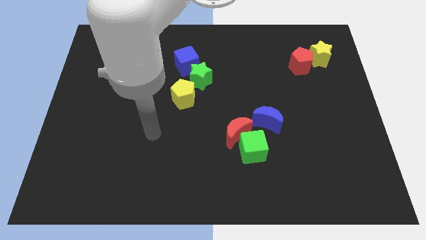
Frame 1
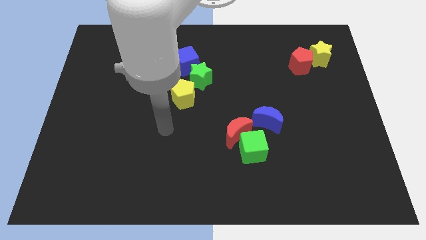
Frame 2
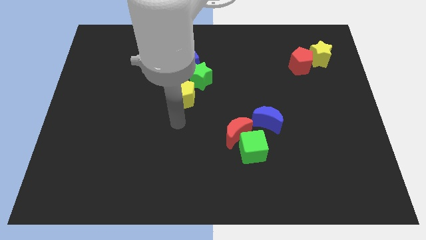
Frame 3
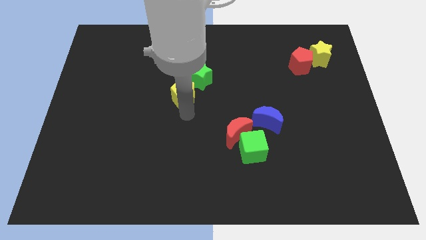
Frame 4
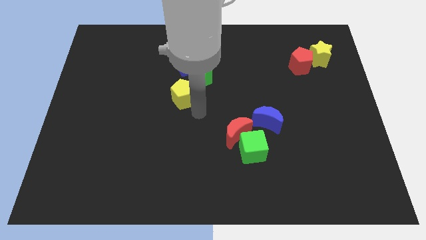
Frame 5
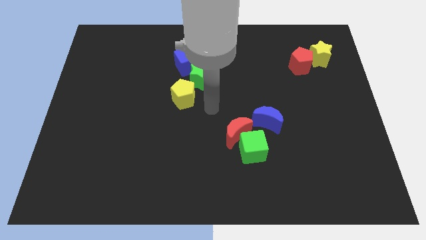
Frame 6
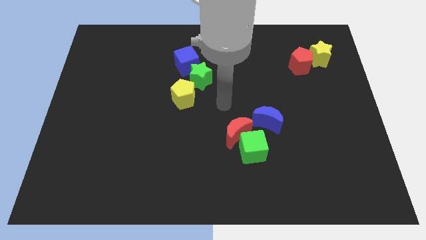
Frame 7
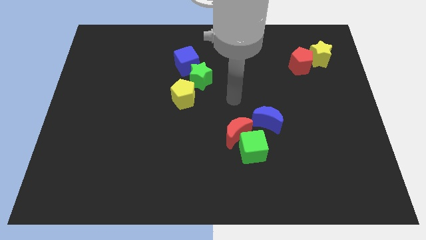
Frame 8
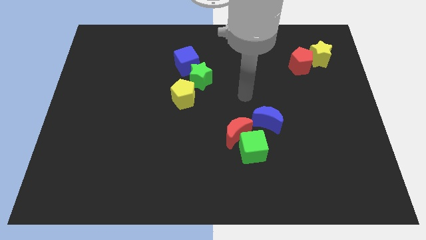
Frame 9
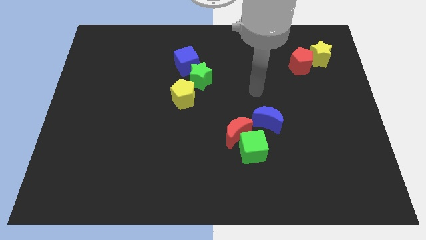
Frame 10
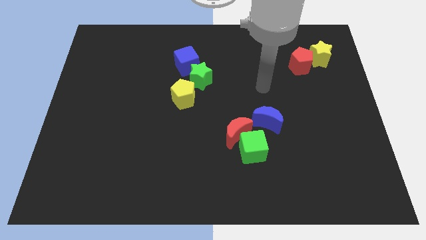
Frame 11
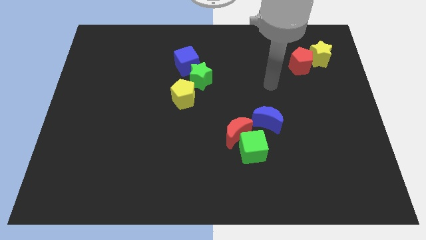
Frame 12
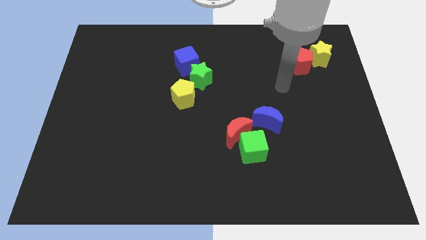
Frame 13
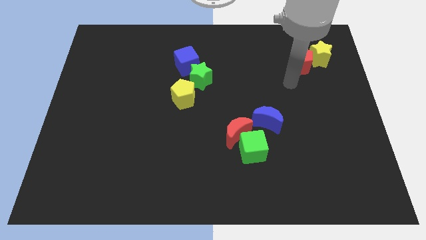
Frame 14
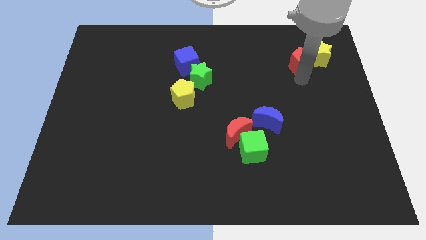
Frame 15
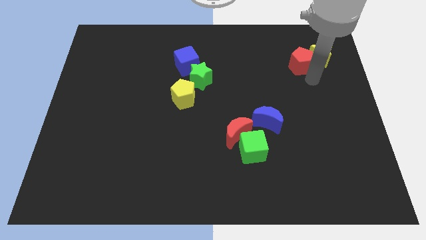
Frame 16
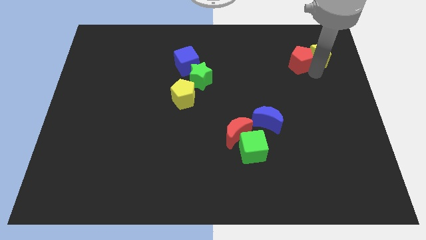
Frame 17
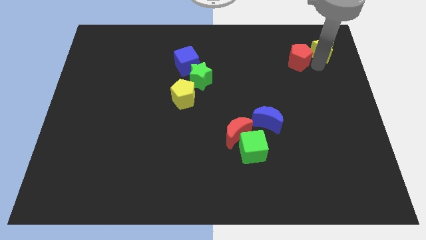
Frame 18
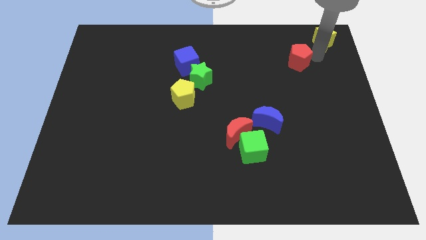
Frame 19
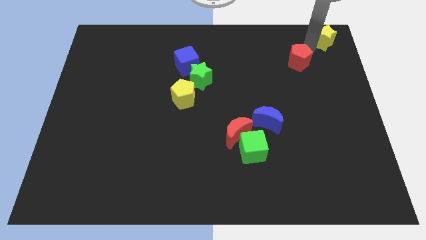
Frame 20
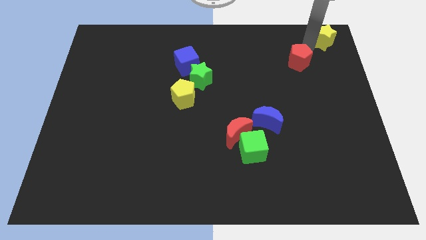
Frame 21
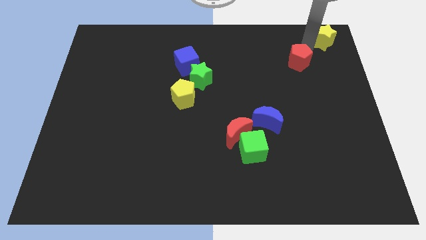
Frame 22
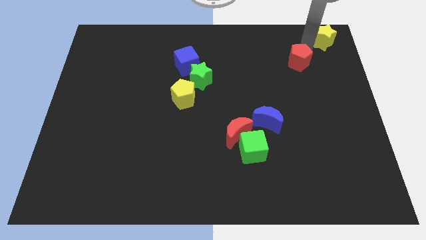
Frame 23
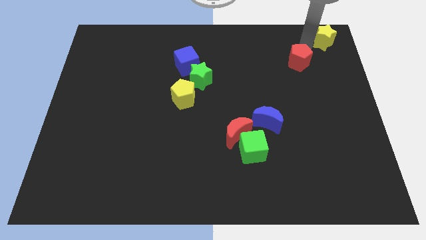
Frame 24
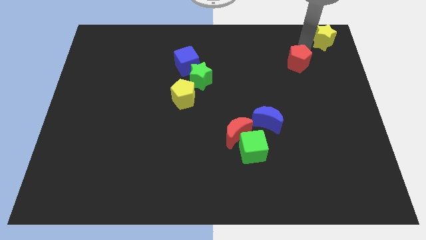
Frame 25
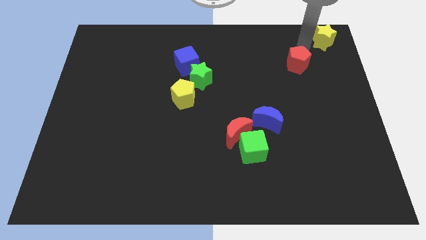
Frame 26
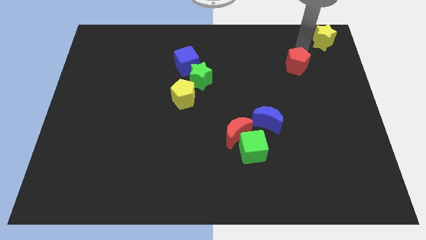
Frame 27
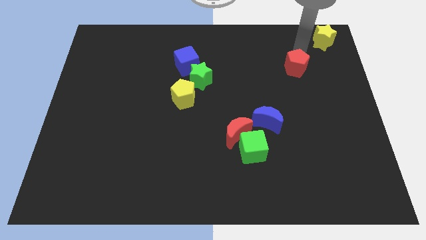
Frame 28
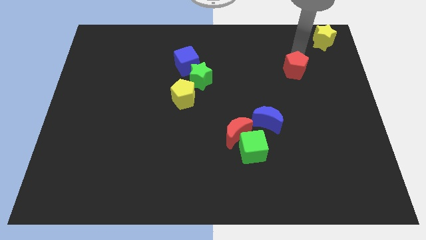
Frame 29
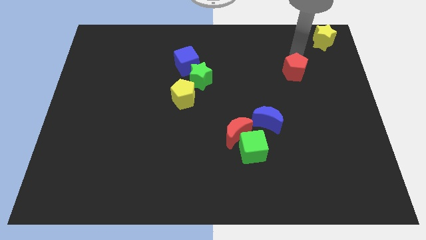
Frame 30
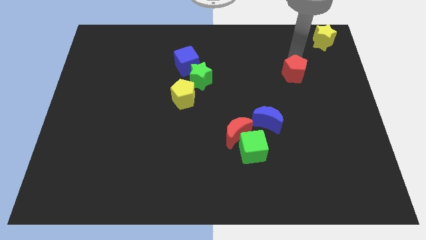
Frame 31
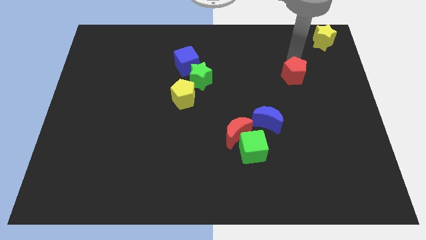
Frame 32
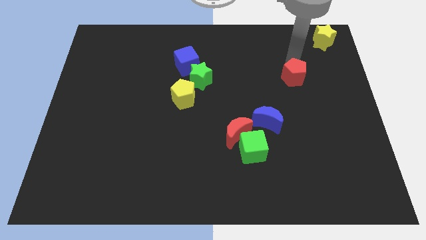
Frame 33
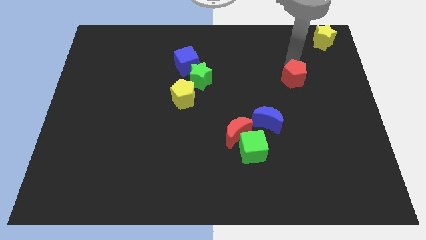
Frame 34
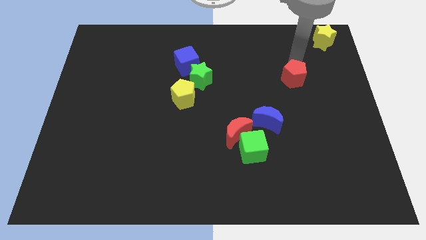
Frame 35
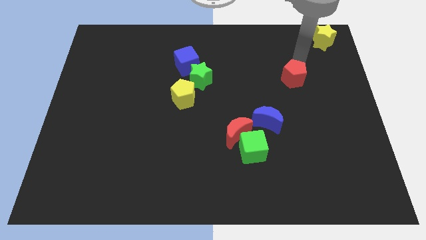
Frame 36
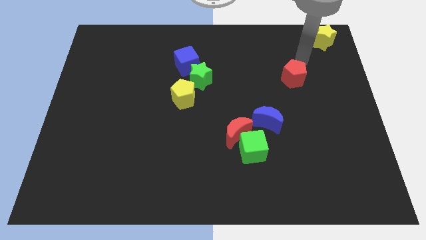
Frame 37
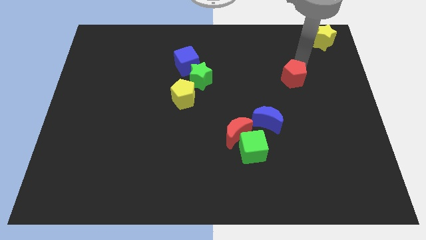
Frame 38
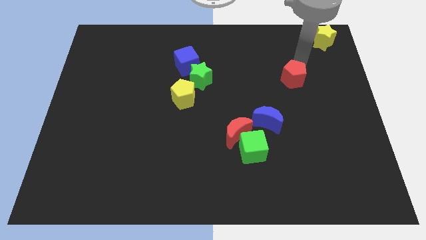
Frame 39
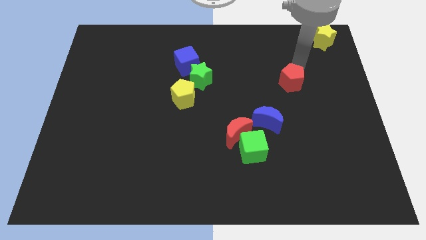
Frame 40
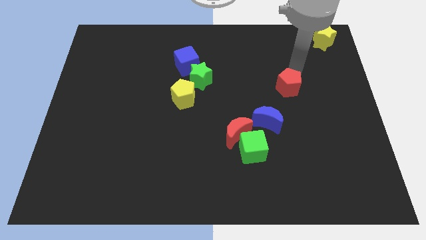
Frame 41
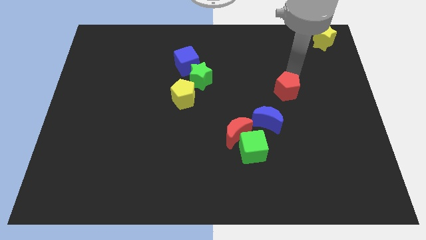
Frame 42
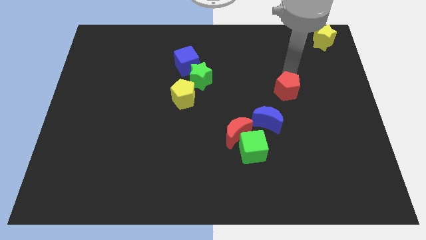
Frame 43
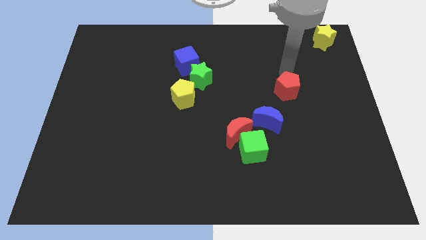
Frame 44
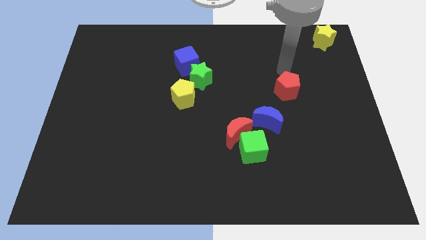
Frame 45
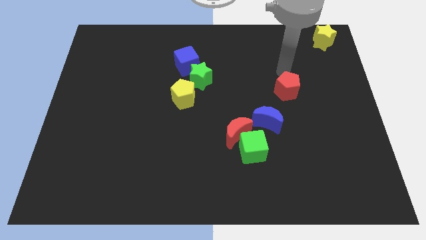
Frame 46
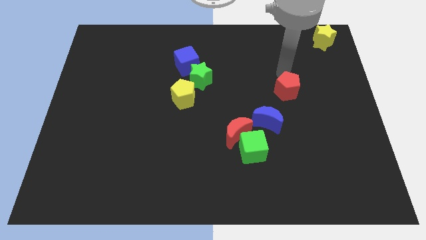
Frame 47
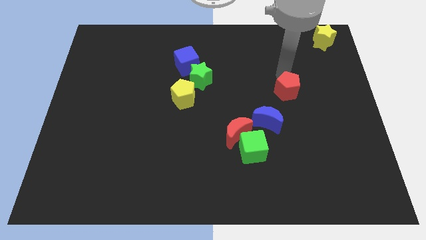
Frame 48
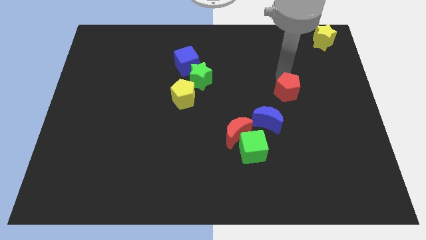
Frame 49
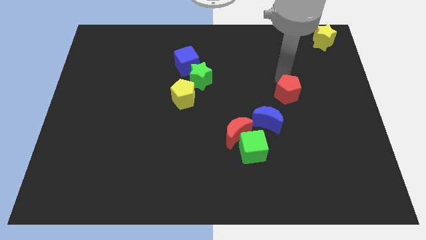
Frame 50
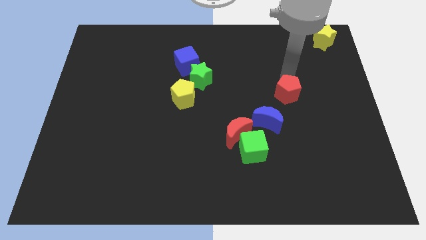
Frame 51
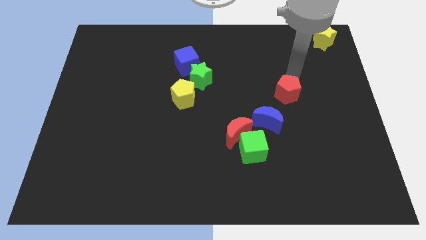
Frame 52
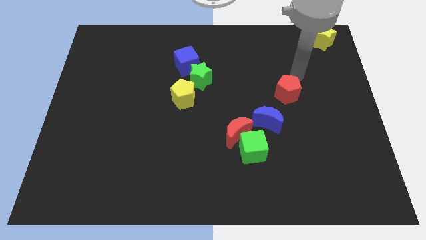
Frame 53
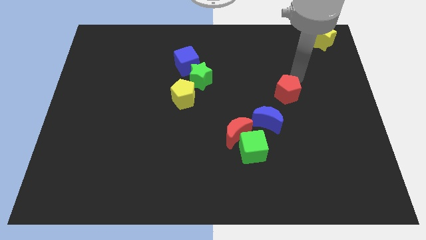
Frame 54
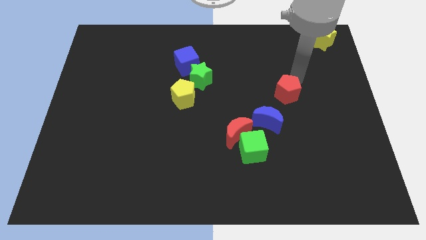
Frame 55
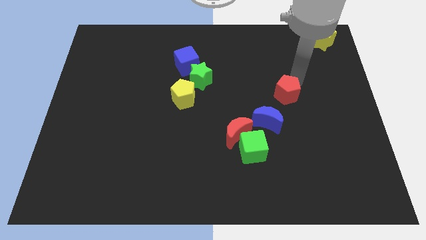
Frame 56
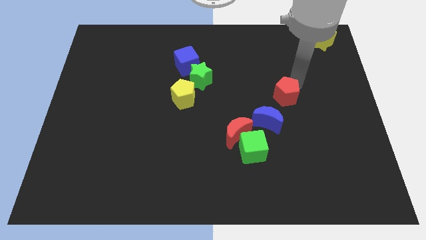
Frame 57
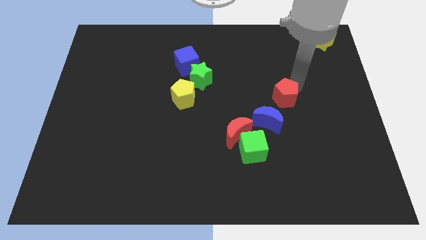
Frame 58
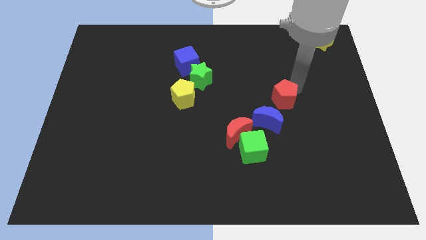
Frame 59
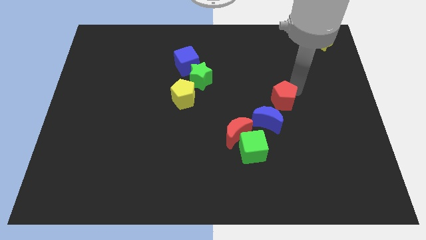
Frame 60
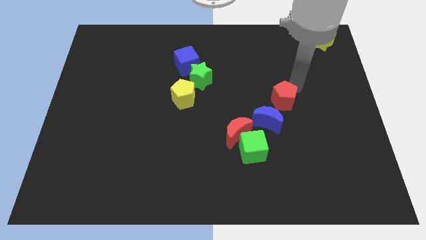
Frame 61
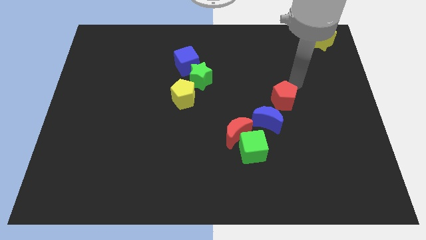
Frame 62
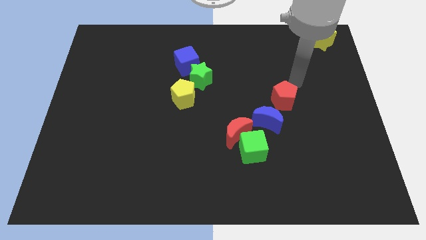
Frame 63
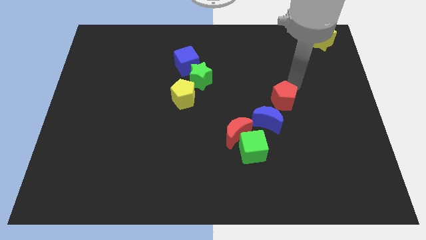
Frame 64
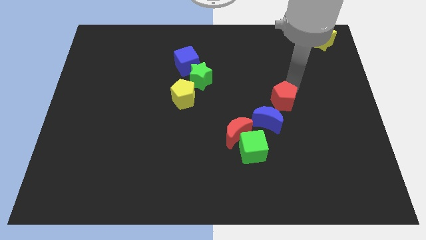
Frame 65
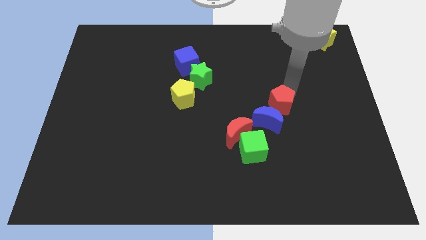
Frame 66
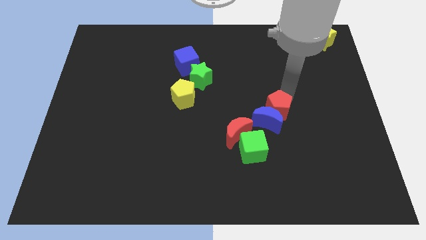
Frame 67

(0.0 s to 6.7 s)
put the red pentagon towards the blue moon

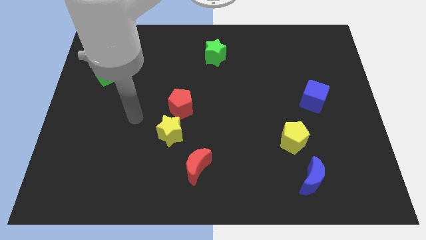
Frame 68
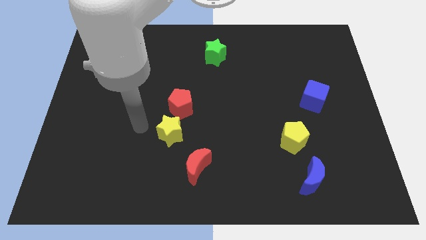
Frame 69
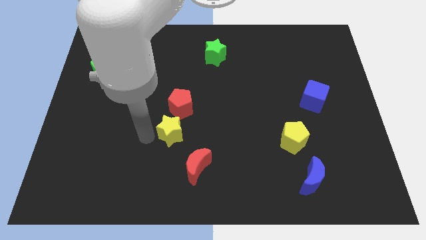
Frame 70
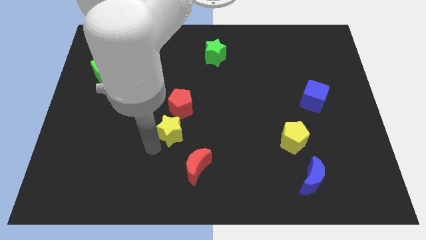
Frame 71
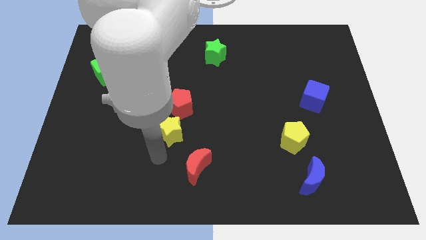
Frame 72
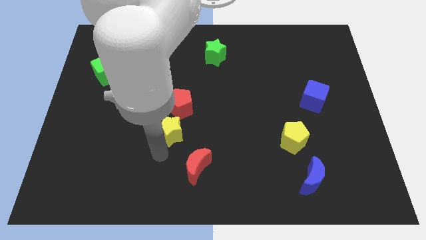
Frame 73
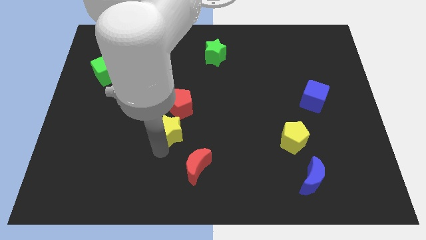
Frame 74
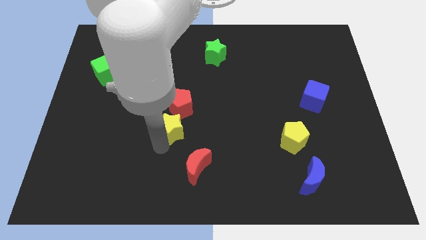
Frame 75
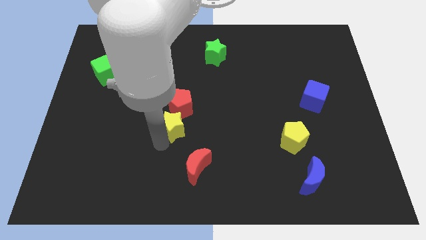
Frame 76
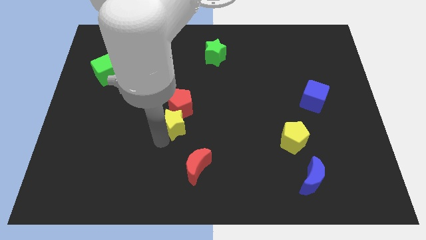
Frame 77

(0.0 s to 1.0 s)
slide the yellow star towards the red pentagon
